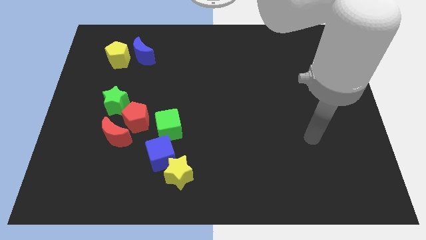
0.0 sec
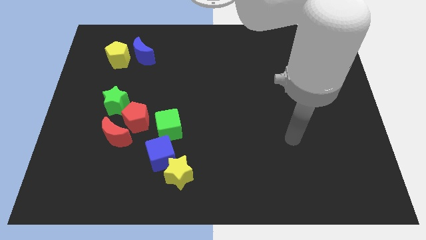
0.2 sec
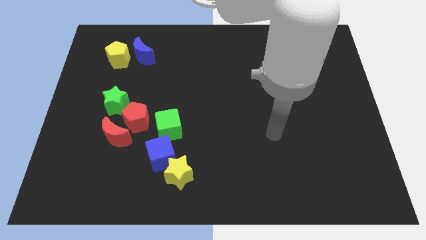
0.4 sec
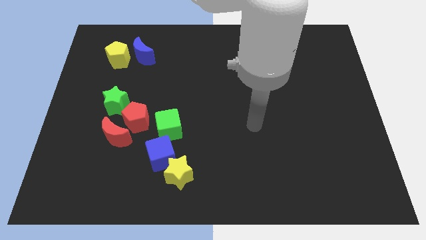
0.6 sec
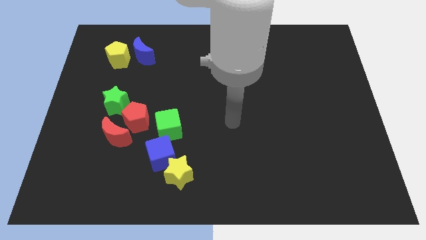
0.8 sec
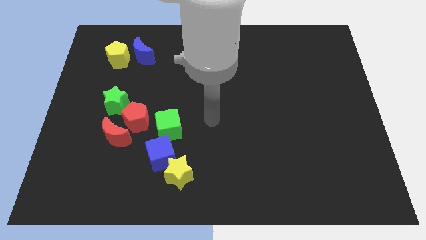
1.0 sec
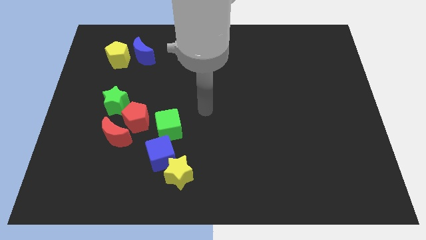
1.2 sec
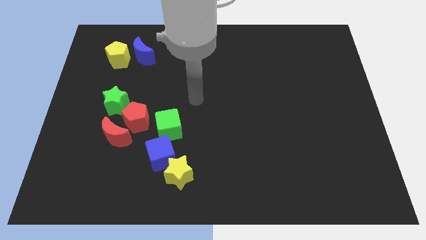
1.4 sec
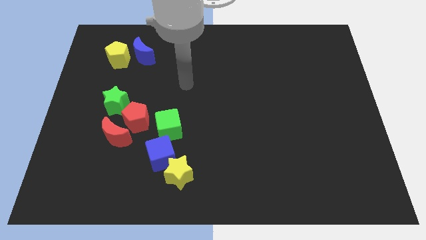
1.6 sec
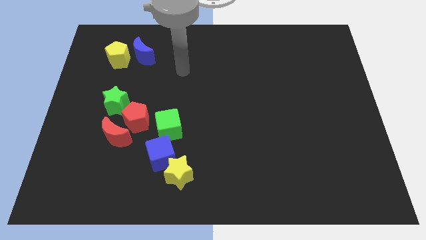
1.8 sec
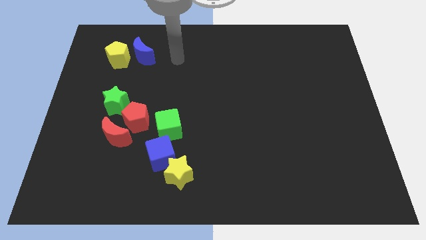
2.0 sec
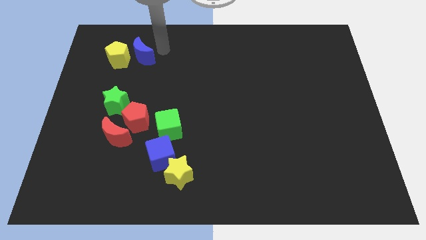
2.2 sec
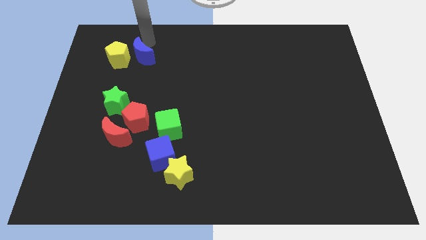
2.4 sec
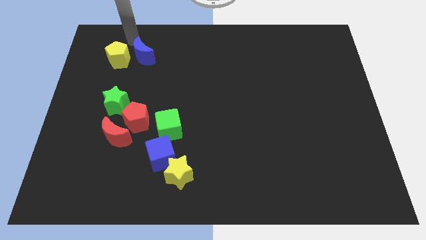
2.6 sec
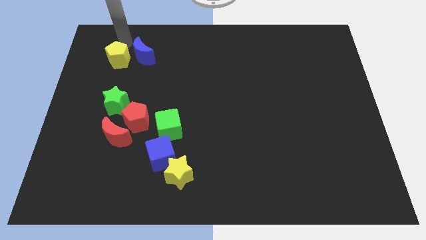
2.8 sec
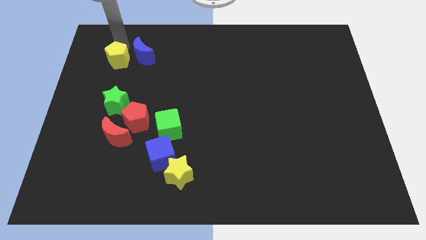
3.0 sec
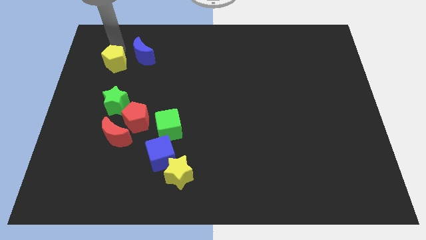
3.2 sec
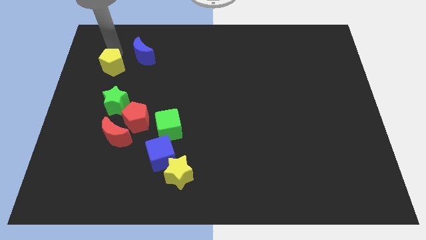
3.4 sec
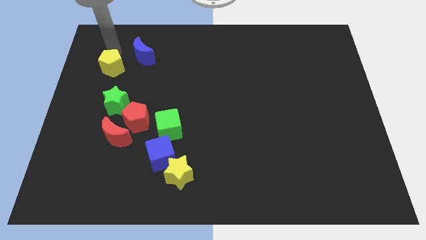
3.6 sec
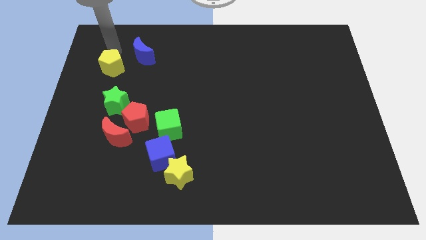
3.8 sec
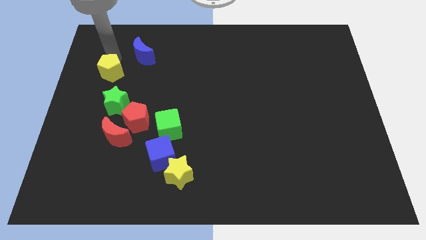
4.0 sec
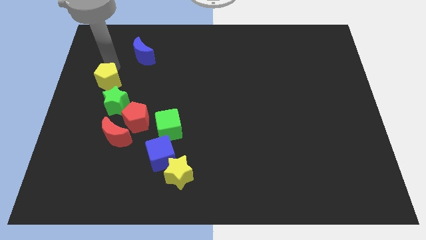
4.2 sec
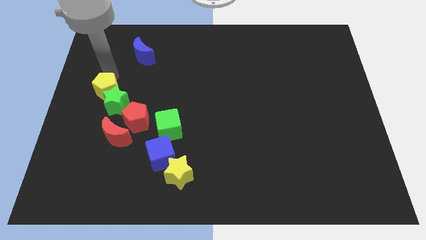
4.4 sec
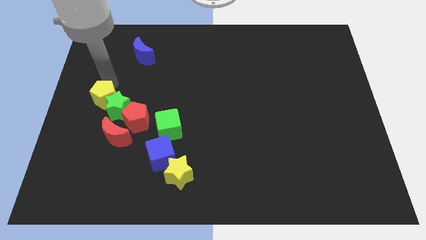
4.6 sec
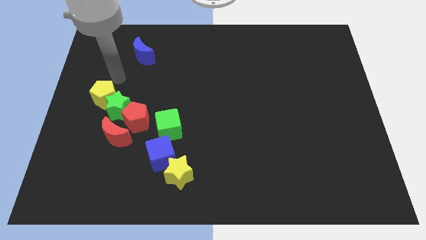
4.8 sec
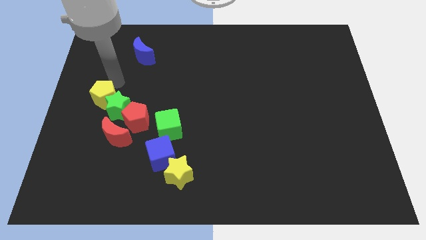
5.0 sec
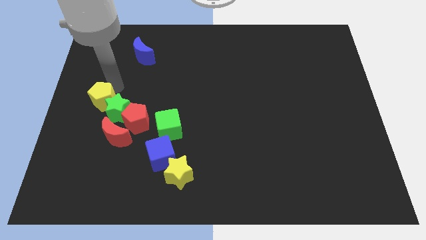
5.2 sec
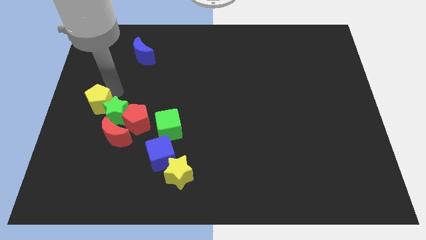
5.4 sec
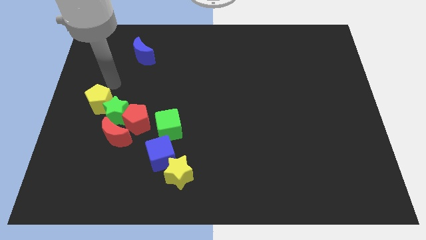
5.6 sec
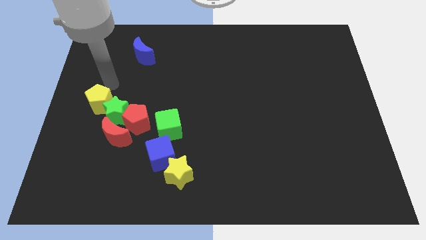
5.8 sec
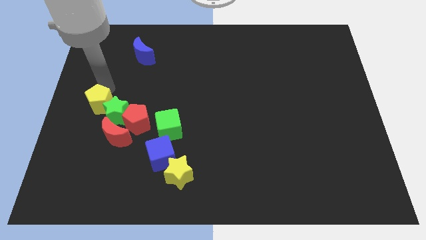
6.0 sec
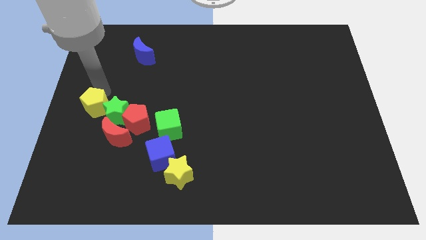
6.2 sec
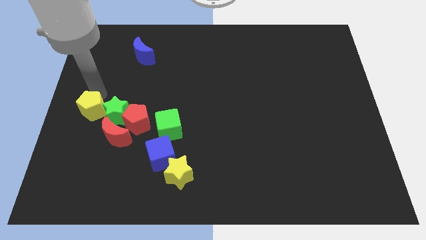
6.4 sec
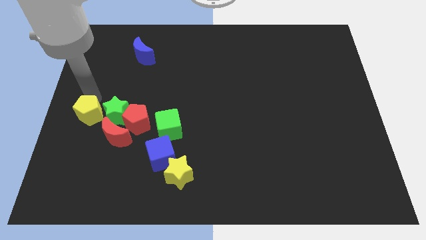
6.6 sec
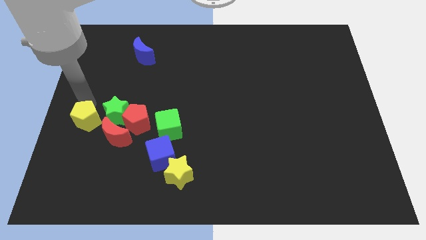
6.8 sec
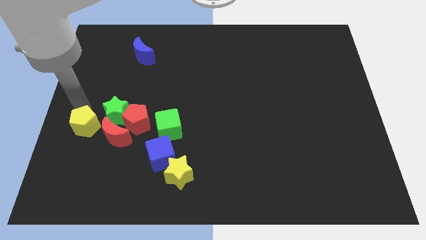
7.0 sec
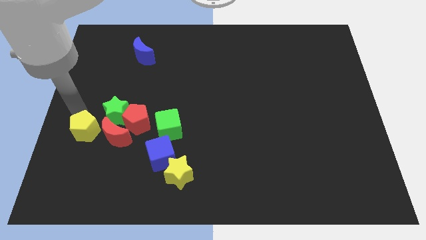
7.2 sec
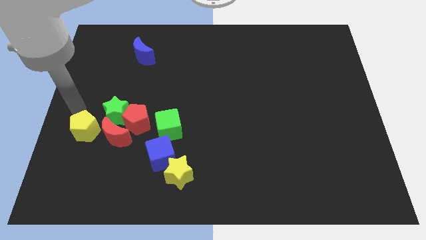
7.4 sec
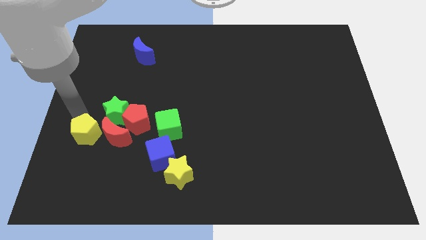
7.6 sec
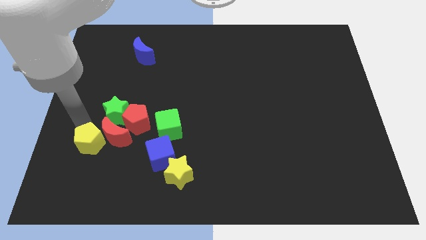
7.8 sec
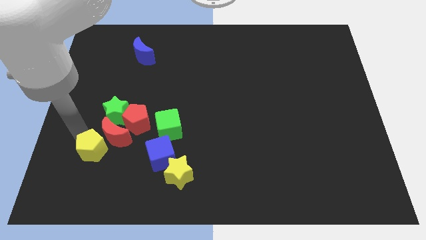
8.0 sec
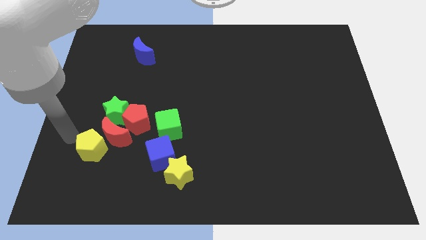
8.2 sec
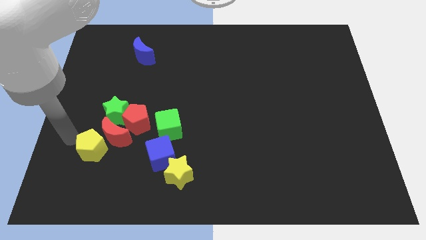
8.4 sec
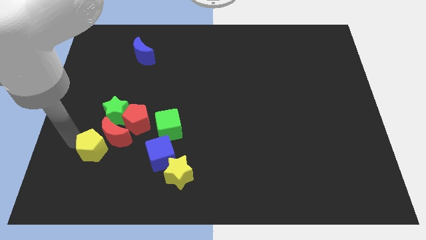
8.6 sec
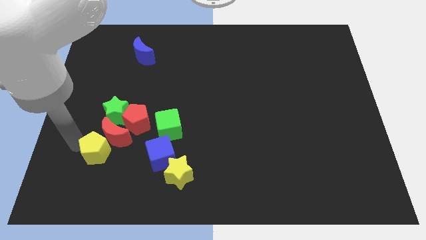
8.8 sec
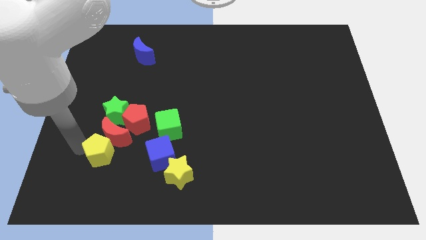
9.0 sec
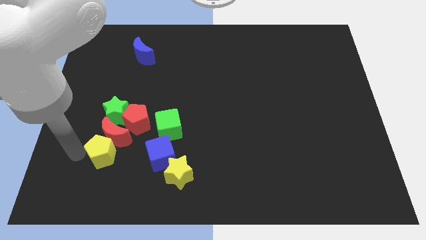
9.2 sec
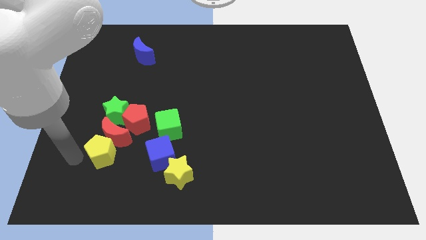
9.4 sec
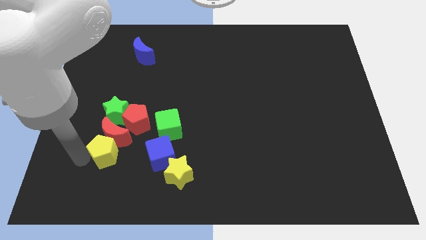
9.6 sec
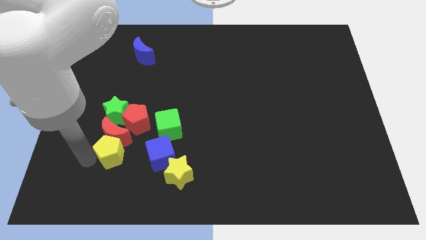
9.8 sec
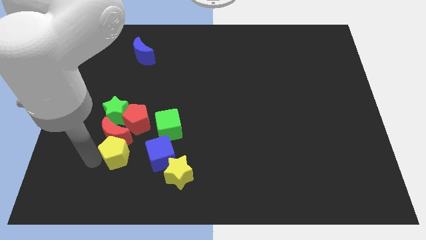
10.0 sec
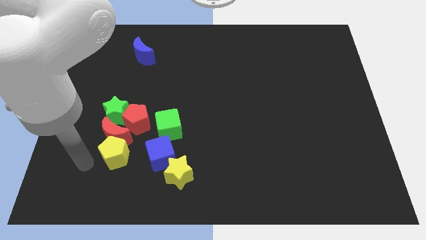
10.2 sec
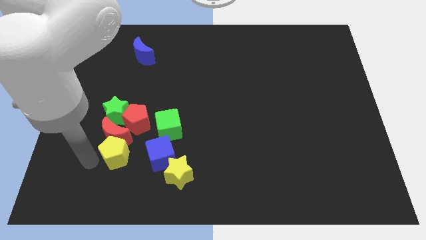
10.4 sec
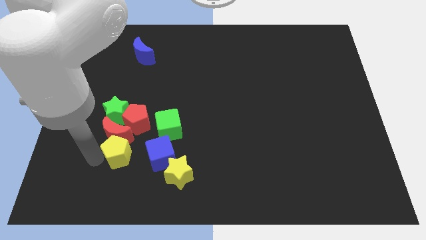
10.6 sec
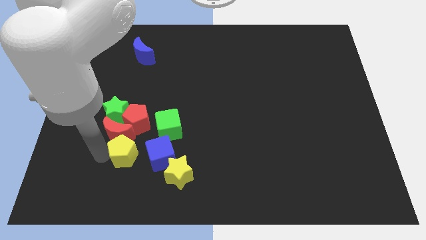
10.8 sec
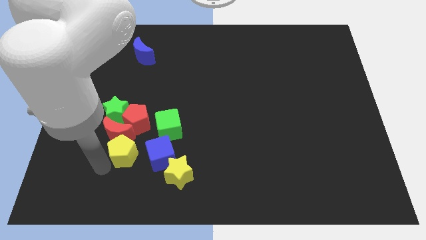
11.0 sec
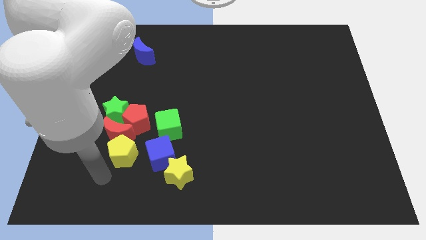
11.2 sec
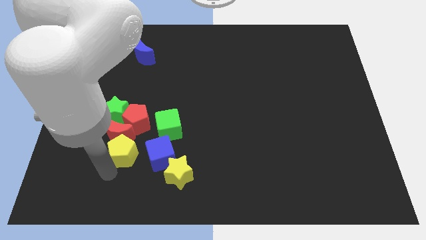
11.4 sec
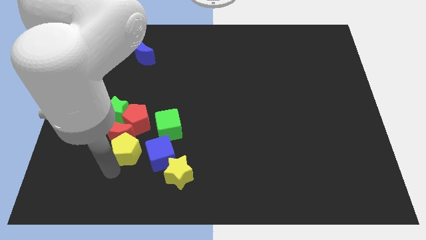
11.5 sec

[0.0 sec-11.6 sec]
move the yellow pentagon to the top left of the blue cube
